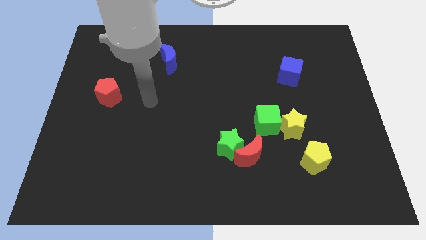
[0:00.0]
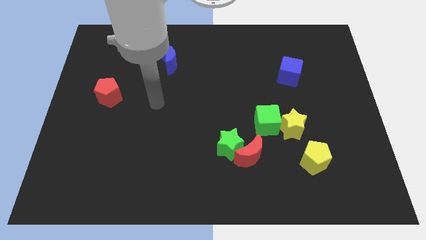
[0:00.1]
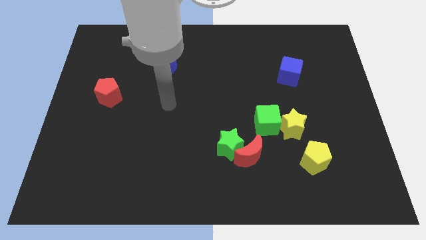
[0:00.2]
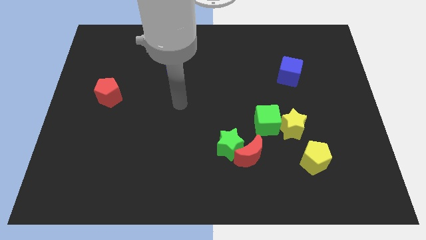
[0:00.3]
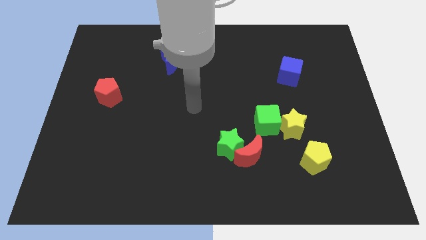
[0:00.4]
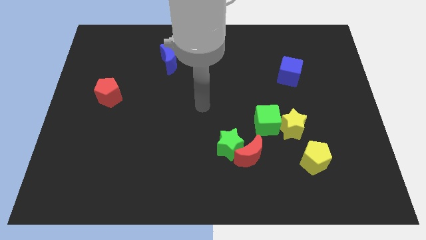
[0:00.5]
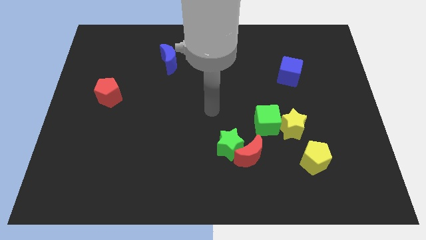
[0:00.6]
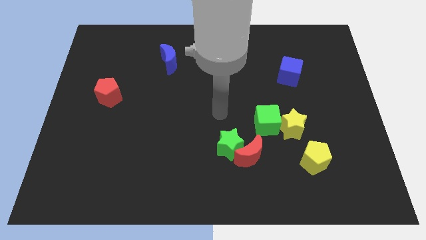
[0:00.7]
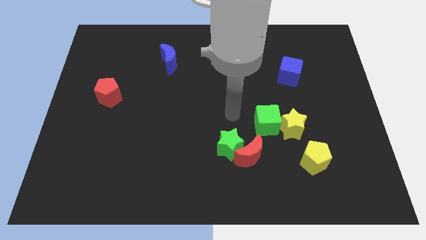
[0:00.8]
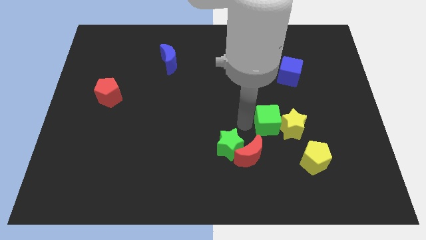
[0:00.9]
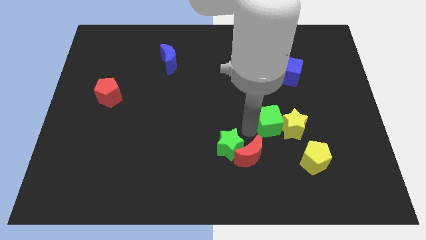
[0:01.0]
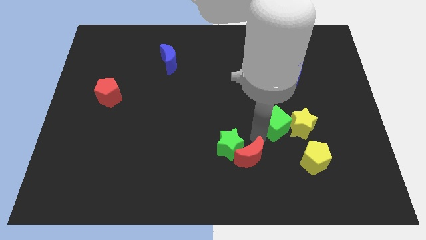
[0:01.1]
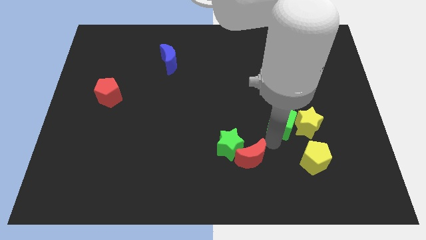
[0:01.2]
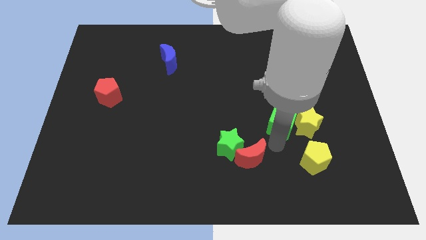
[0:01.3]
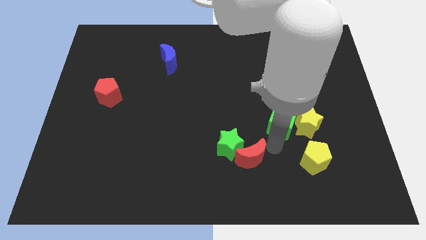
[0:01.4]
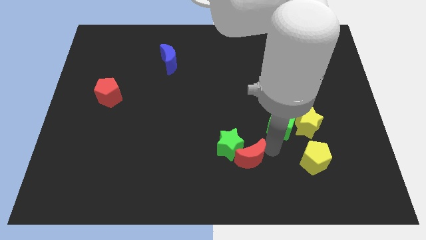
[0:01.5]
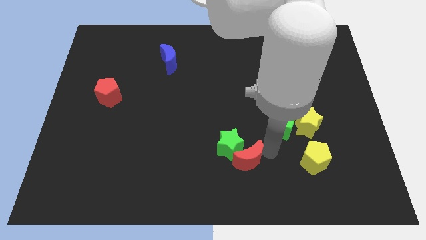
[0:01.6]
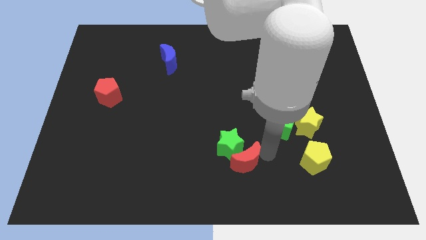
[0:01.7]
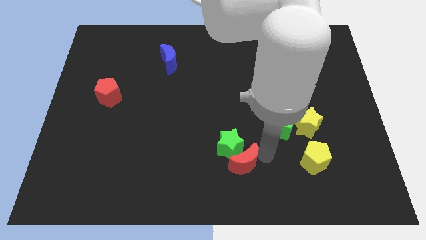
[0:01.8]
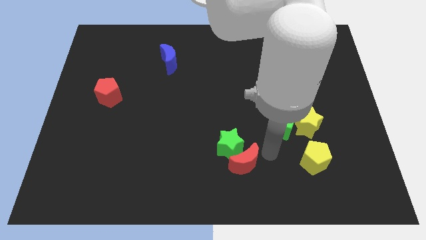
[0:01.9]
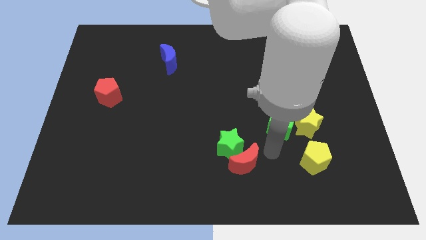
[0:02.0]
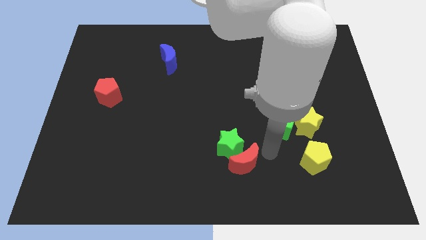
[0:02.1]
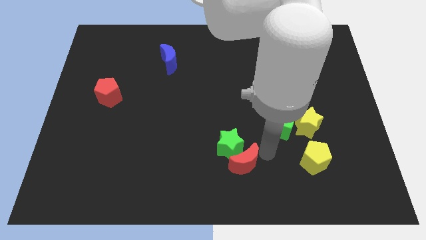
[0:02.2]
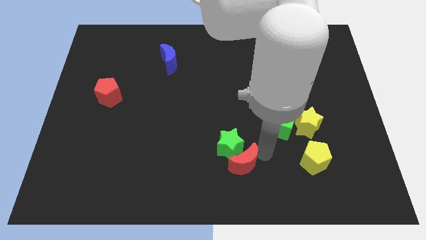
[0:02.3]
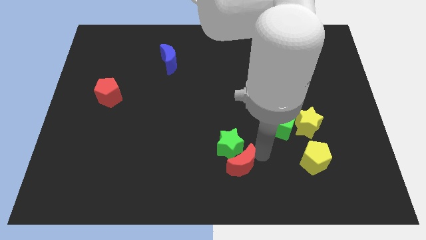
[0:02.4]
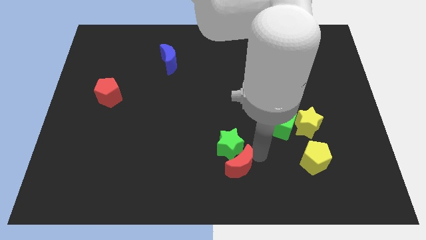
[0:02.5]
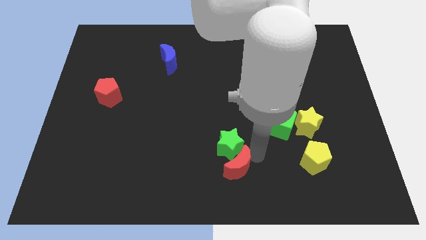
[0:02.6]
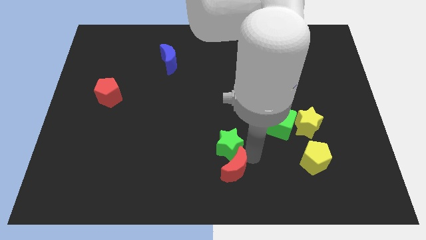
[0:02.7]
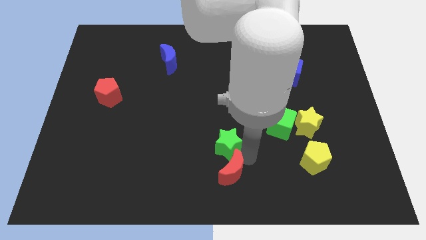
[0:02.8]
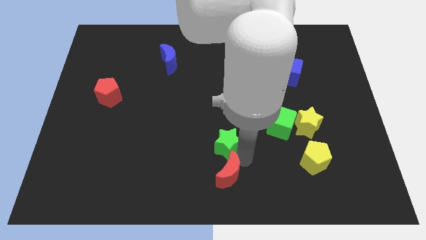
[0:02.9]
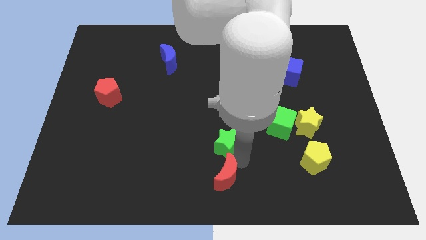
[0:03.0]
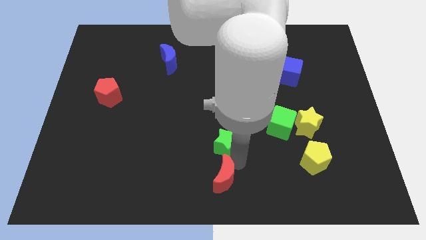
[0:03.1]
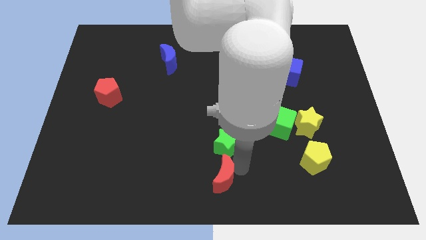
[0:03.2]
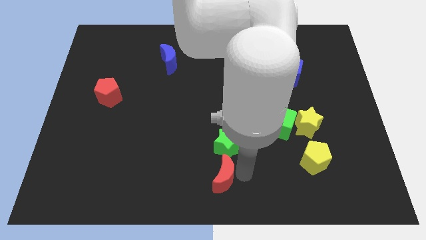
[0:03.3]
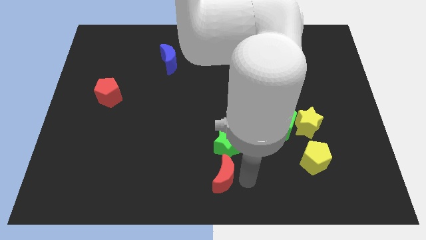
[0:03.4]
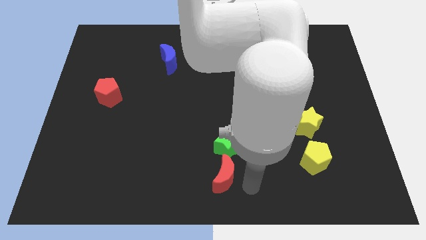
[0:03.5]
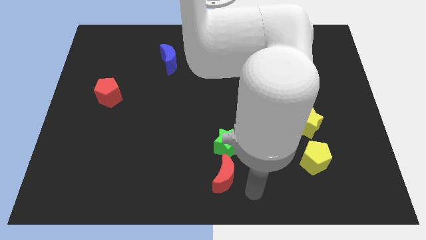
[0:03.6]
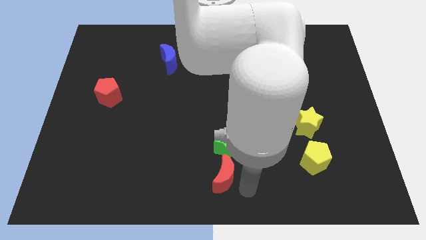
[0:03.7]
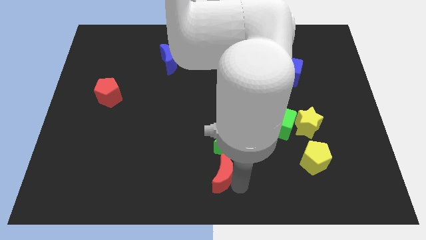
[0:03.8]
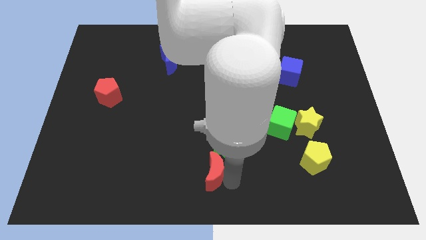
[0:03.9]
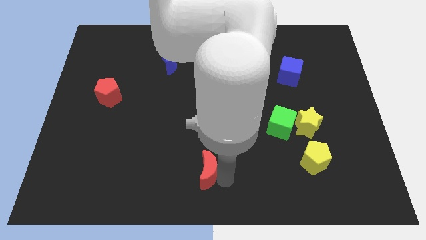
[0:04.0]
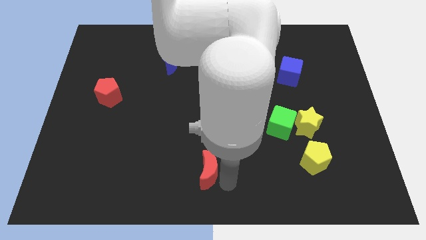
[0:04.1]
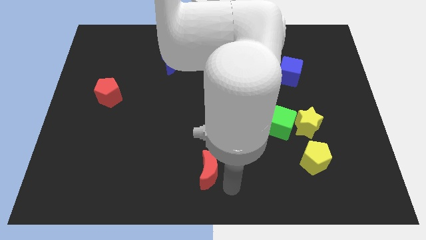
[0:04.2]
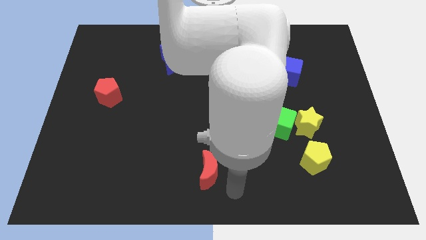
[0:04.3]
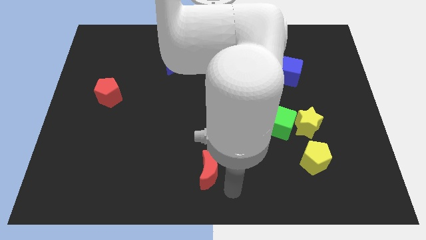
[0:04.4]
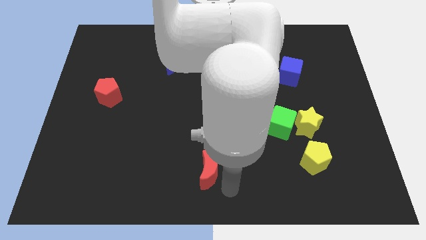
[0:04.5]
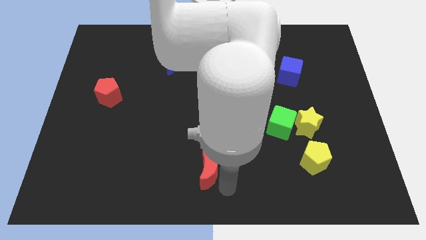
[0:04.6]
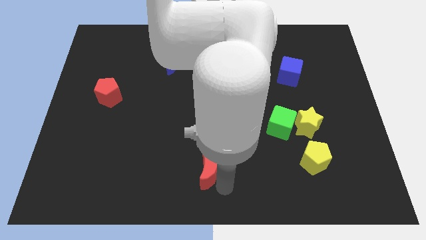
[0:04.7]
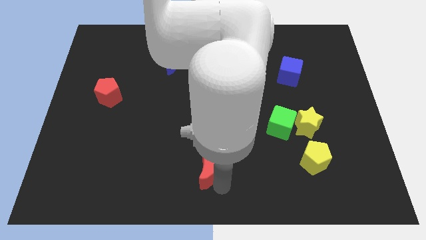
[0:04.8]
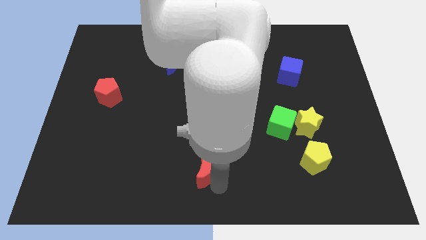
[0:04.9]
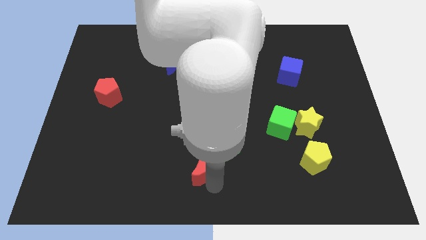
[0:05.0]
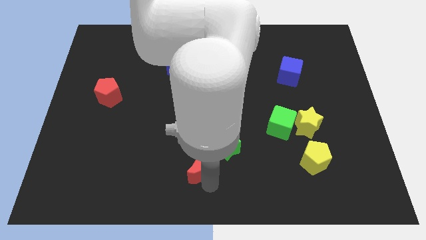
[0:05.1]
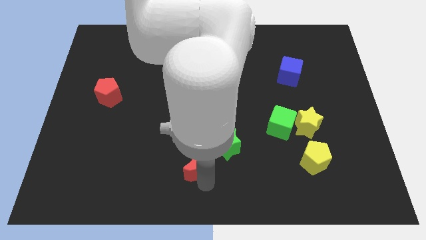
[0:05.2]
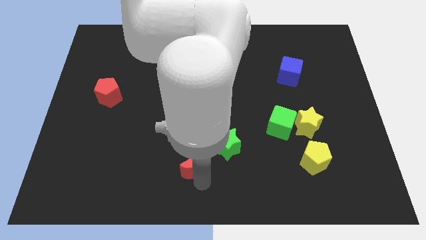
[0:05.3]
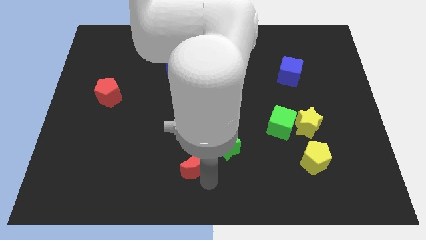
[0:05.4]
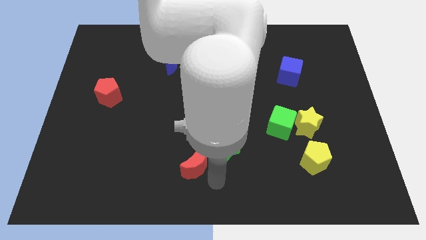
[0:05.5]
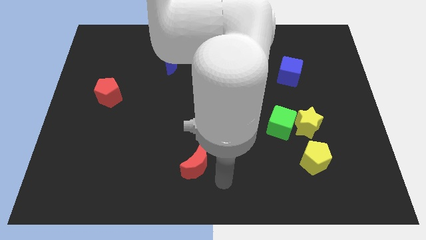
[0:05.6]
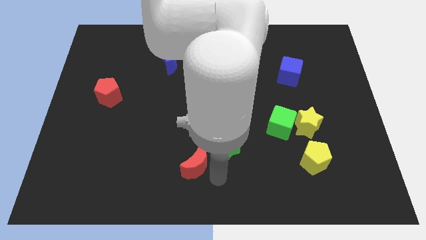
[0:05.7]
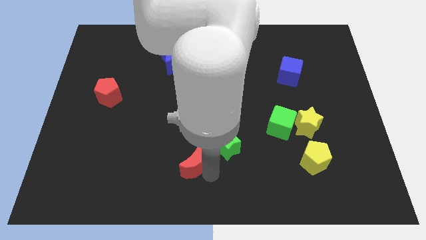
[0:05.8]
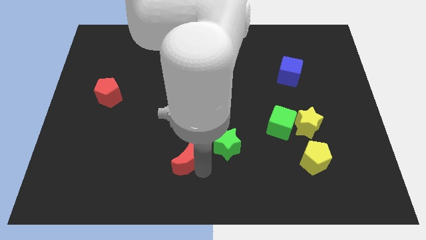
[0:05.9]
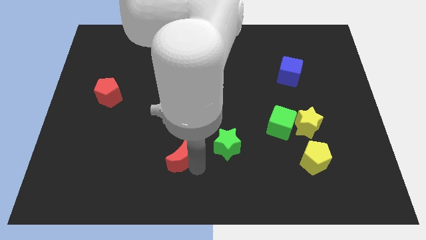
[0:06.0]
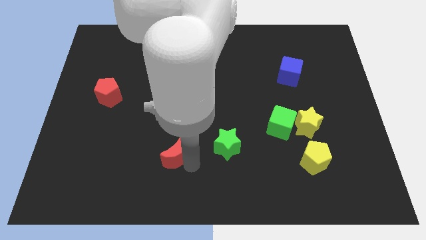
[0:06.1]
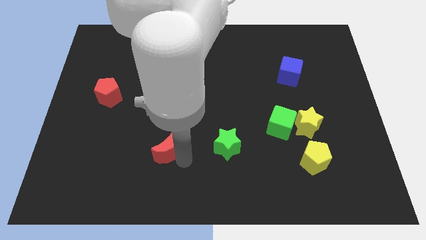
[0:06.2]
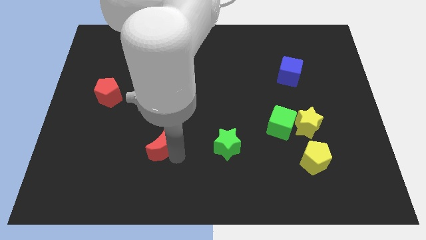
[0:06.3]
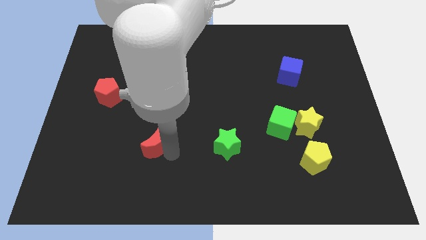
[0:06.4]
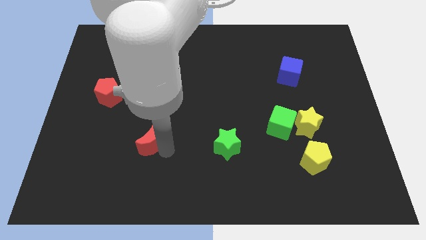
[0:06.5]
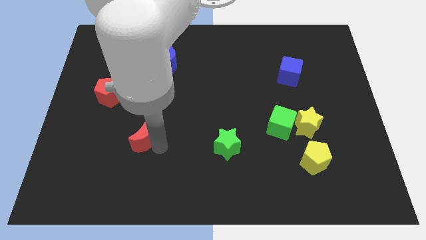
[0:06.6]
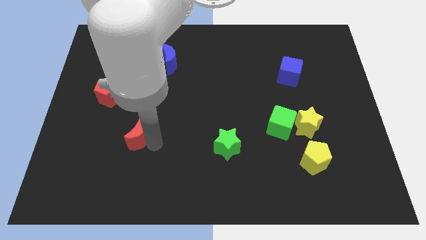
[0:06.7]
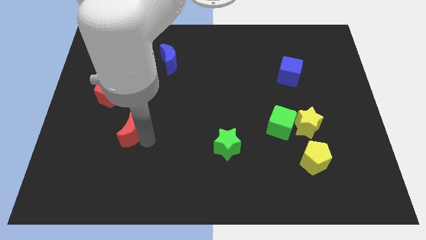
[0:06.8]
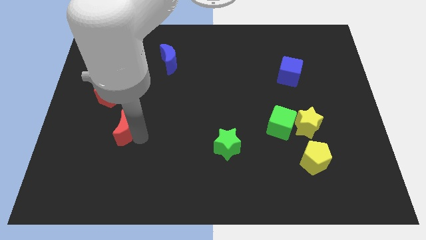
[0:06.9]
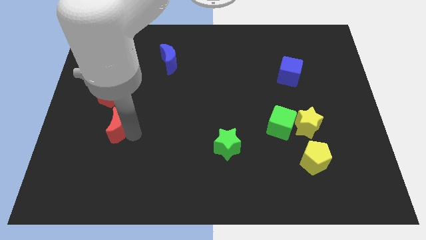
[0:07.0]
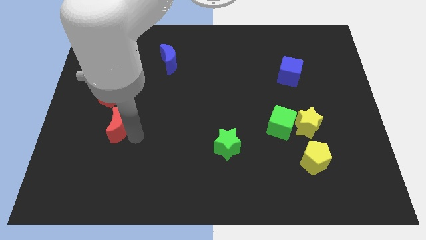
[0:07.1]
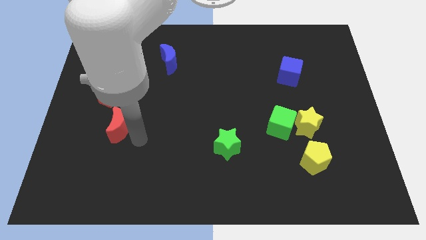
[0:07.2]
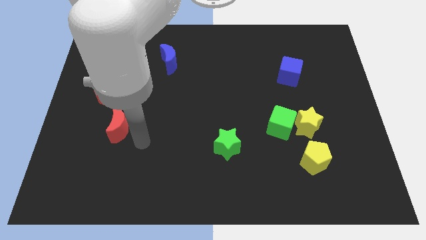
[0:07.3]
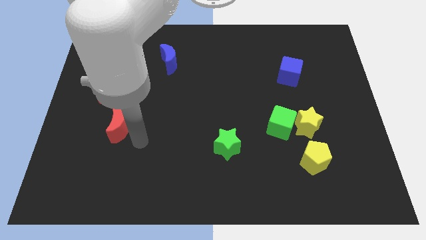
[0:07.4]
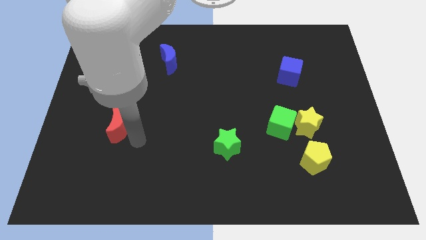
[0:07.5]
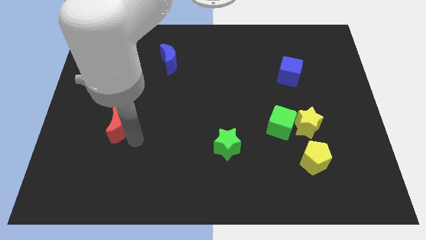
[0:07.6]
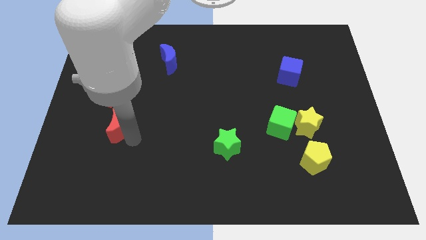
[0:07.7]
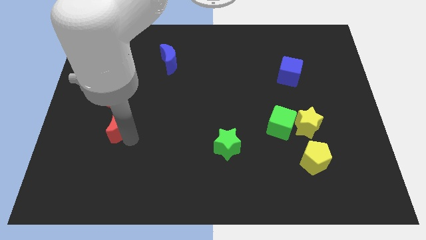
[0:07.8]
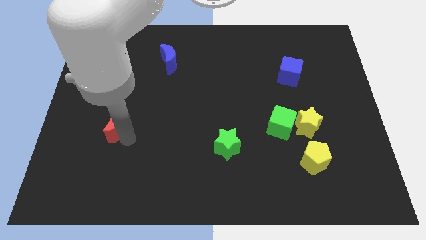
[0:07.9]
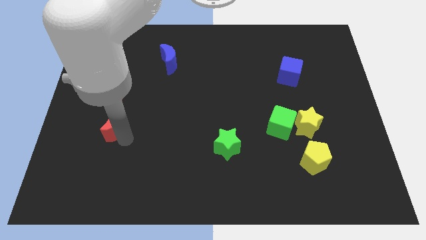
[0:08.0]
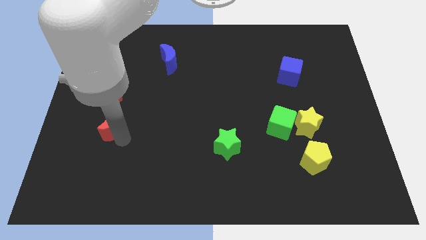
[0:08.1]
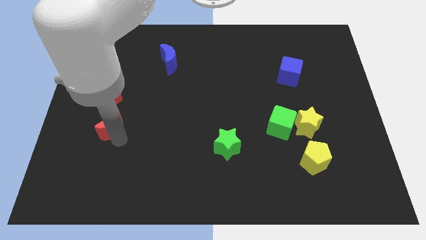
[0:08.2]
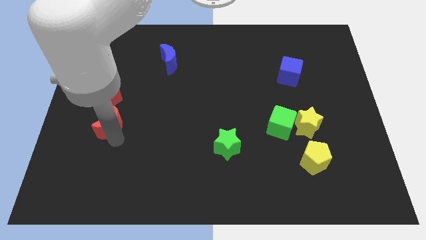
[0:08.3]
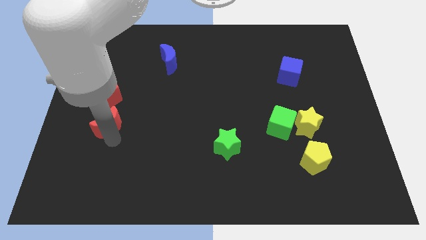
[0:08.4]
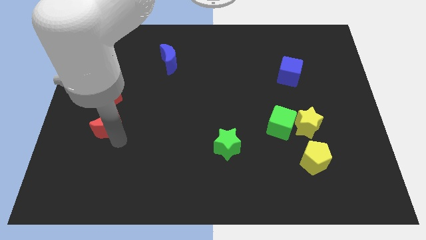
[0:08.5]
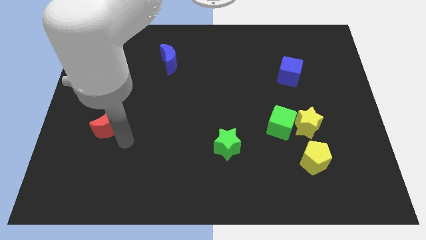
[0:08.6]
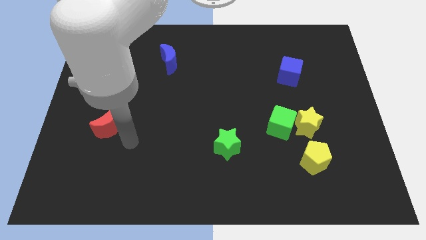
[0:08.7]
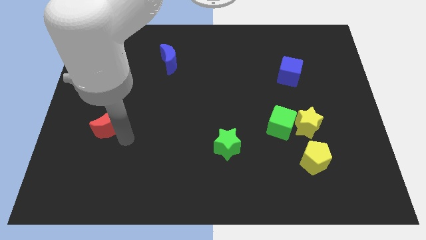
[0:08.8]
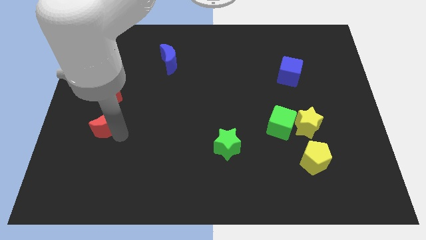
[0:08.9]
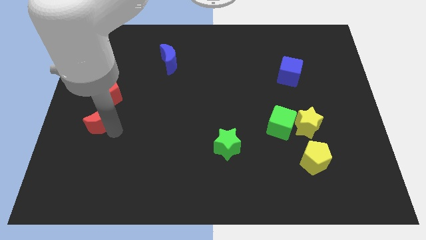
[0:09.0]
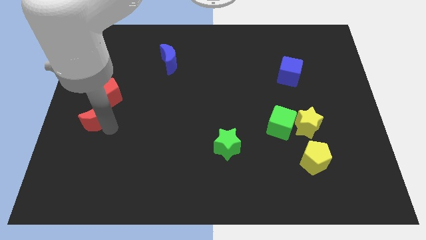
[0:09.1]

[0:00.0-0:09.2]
slide the red moon to the left side of the board
